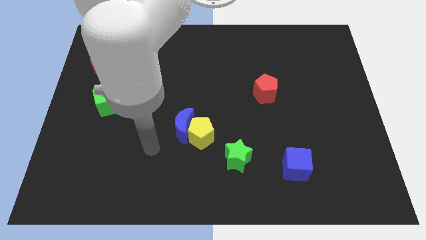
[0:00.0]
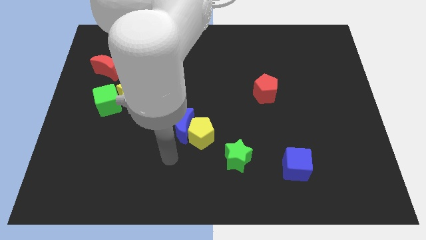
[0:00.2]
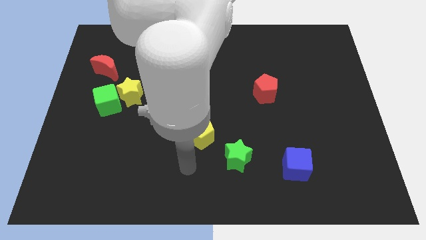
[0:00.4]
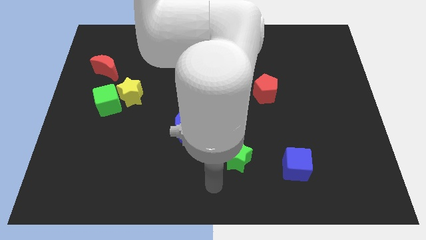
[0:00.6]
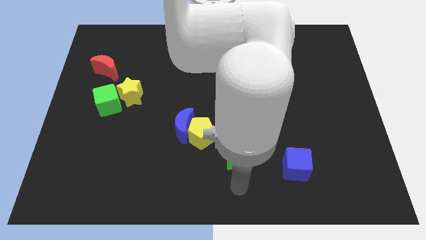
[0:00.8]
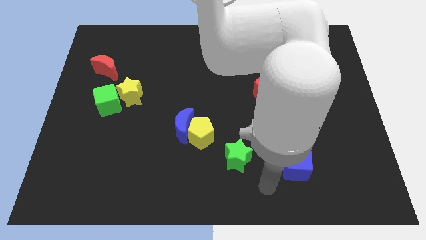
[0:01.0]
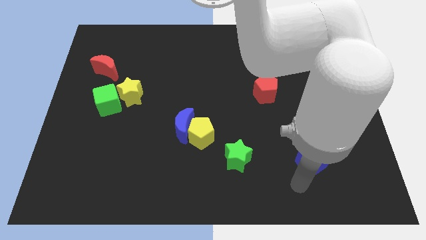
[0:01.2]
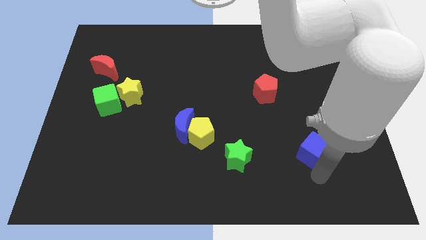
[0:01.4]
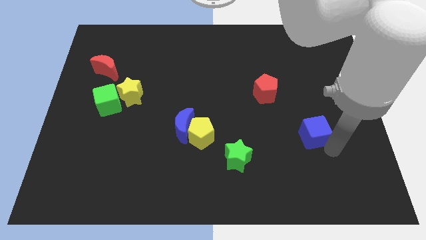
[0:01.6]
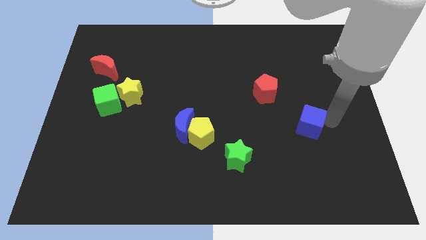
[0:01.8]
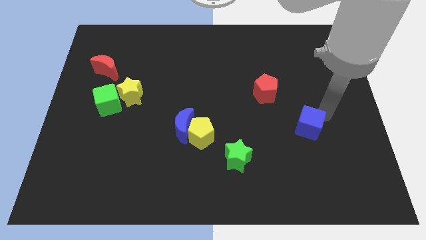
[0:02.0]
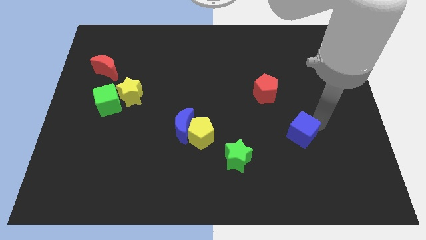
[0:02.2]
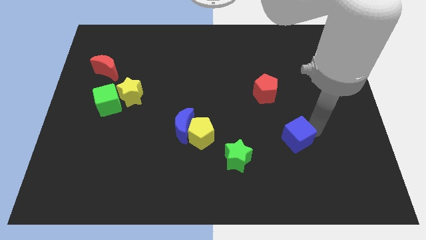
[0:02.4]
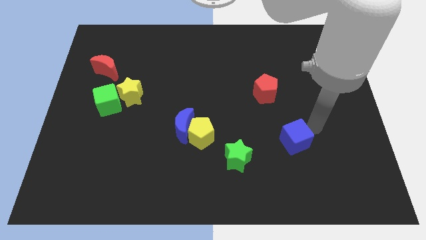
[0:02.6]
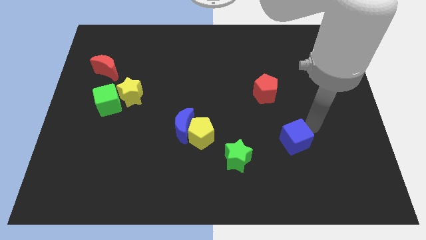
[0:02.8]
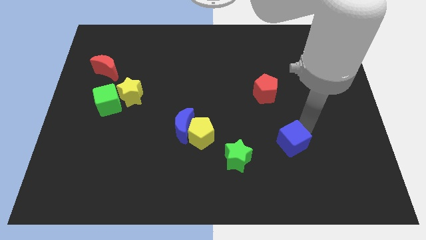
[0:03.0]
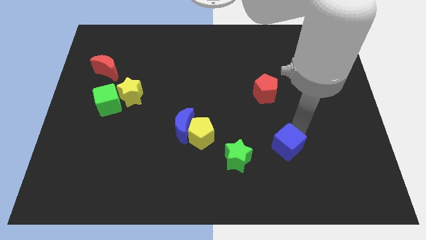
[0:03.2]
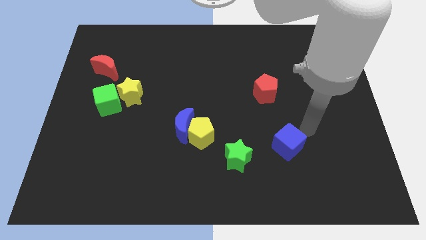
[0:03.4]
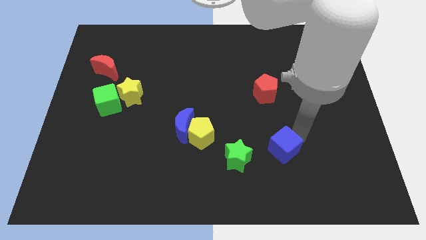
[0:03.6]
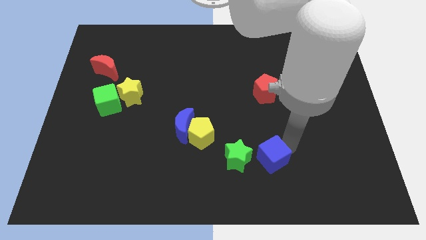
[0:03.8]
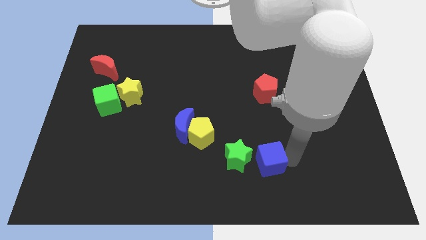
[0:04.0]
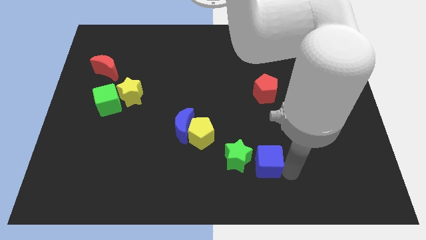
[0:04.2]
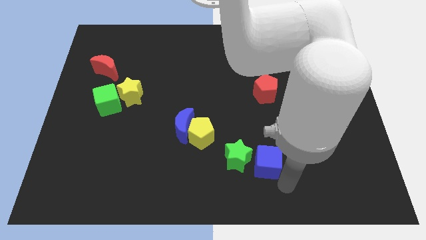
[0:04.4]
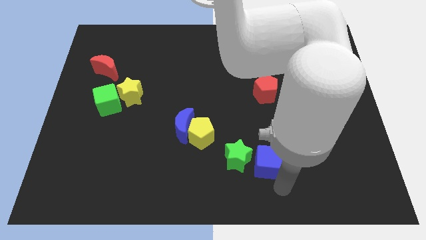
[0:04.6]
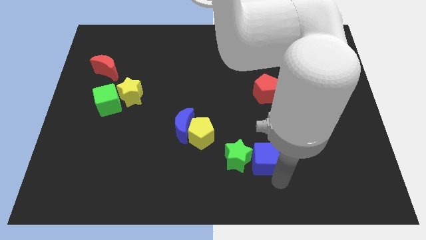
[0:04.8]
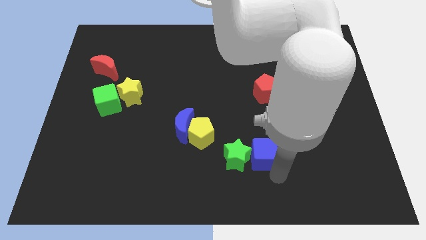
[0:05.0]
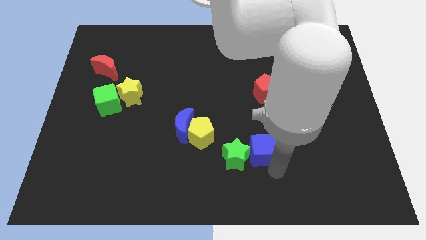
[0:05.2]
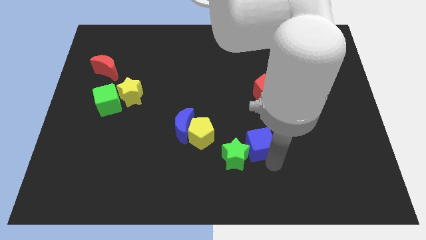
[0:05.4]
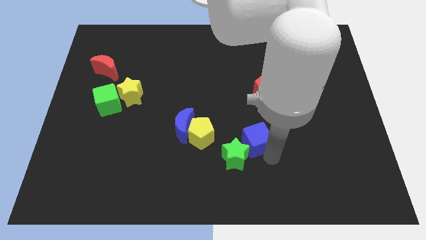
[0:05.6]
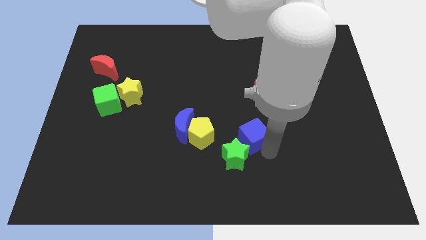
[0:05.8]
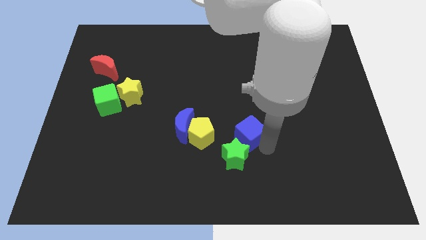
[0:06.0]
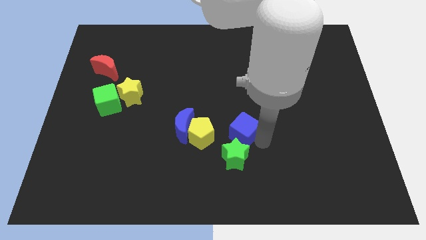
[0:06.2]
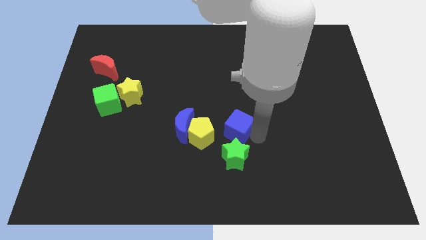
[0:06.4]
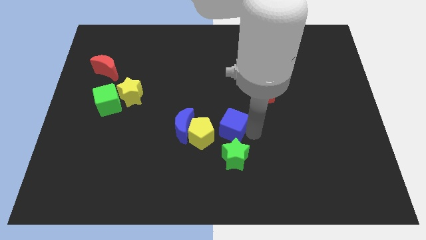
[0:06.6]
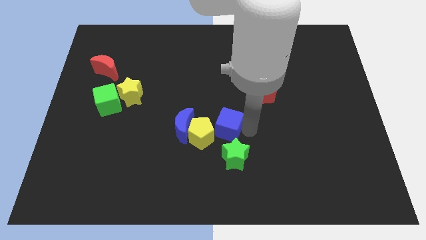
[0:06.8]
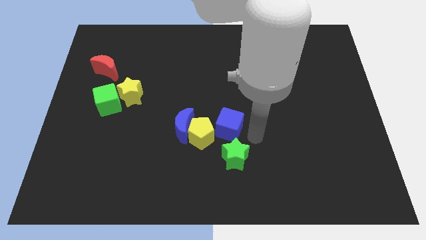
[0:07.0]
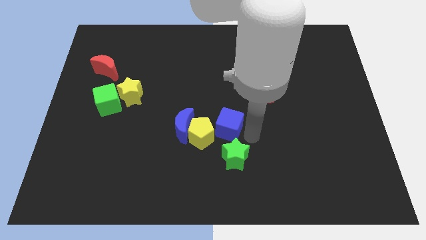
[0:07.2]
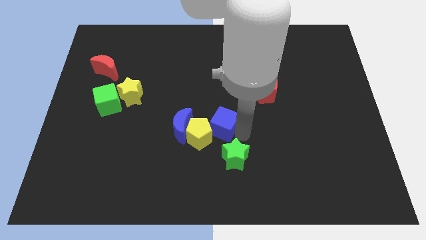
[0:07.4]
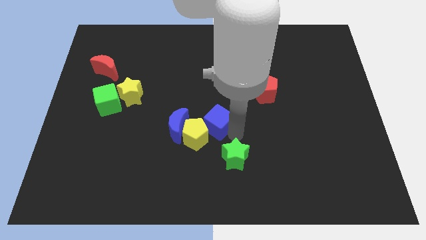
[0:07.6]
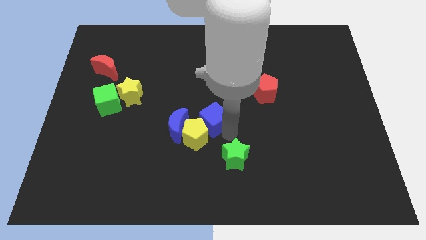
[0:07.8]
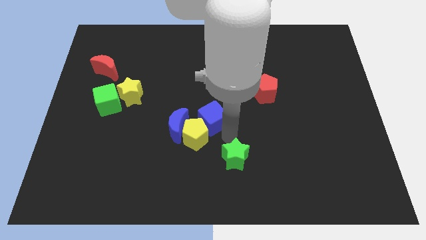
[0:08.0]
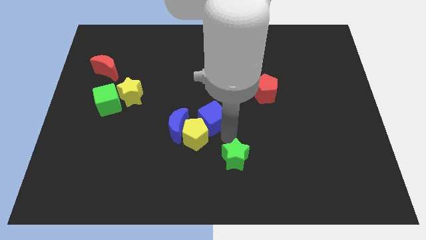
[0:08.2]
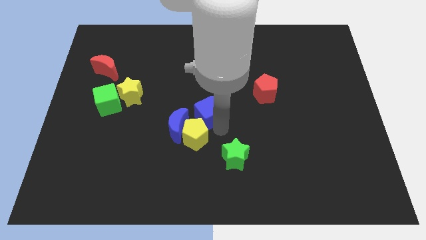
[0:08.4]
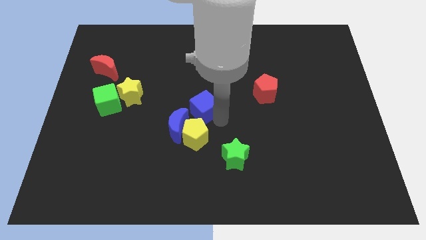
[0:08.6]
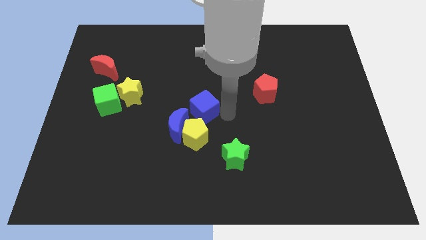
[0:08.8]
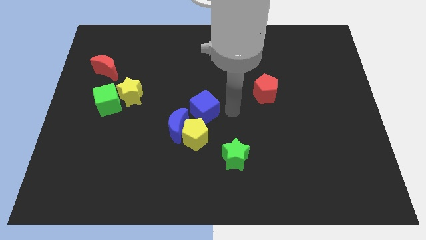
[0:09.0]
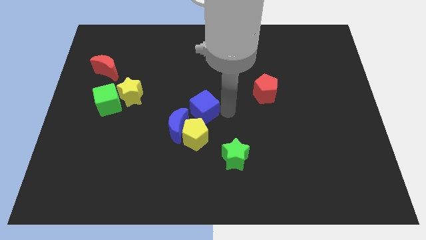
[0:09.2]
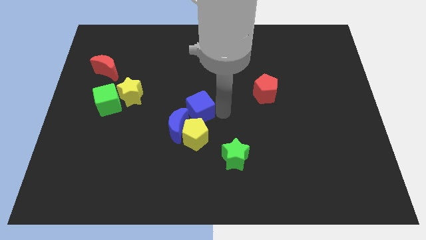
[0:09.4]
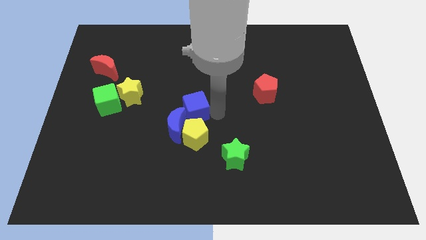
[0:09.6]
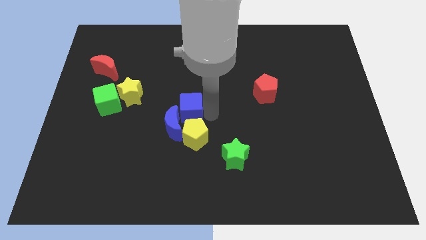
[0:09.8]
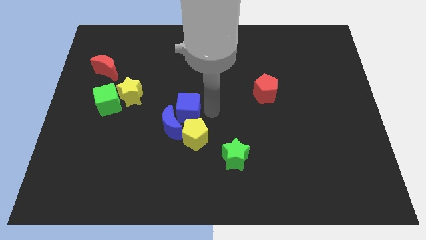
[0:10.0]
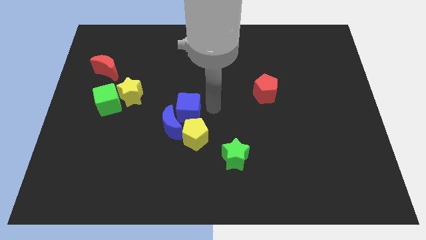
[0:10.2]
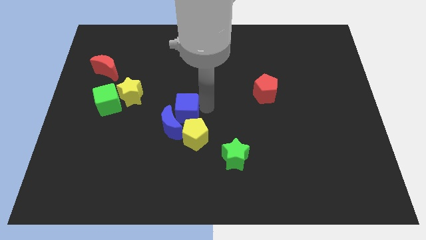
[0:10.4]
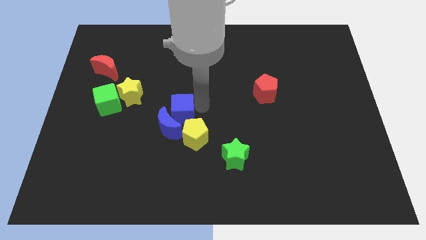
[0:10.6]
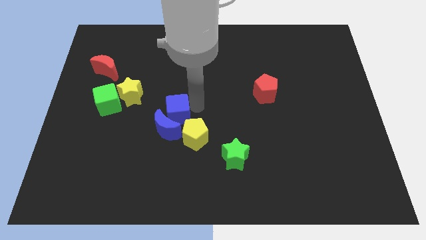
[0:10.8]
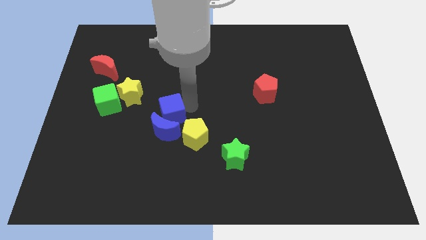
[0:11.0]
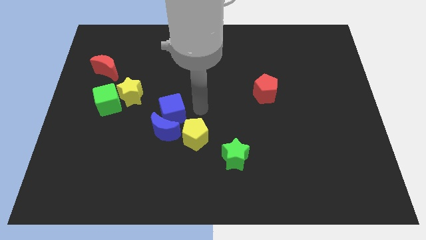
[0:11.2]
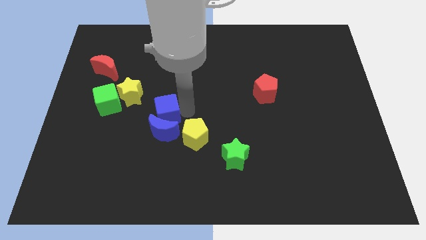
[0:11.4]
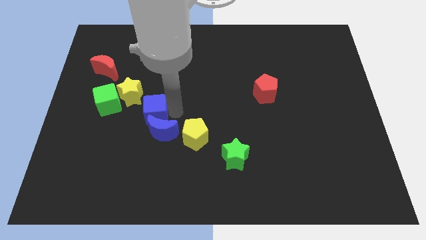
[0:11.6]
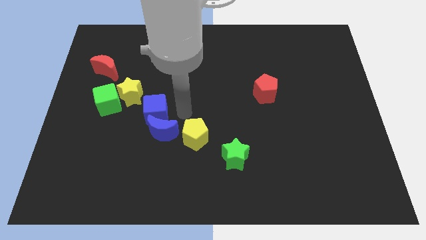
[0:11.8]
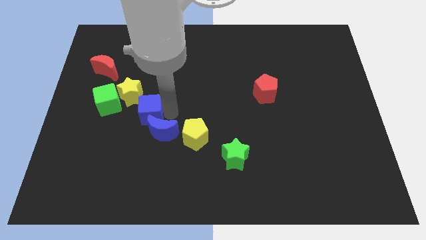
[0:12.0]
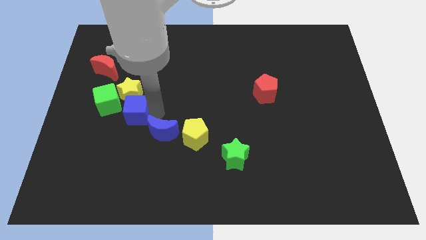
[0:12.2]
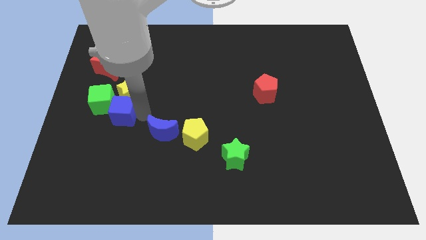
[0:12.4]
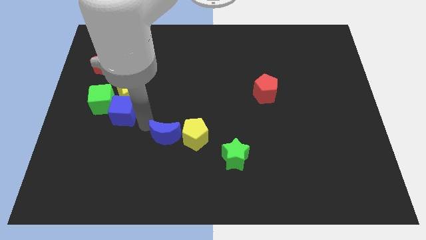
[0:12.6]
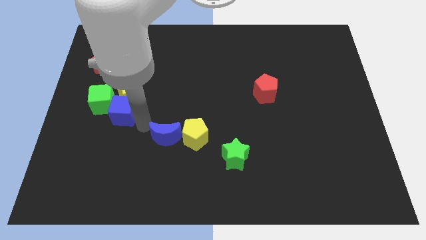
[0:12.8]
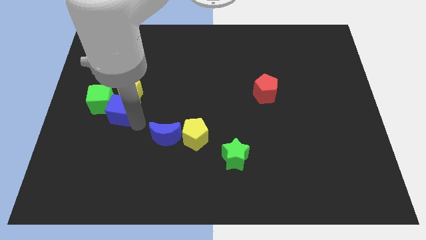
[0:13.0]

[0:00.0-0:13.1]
slide the blue cube towards the green cube
